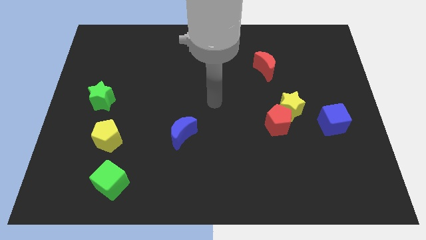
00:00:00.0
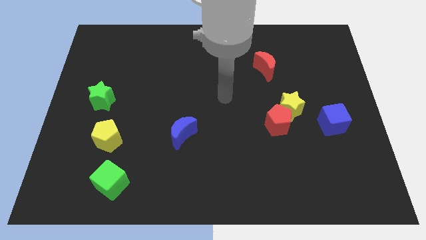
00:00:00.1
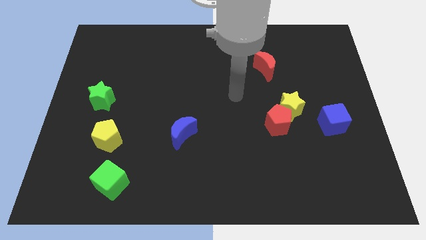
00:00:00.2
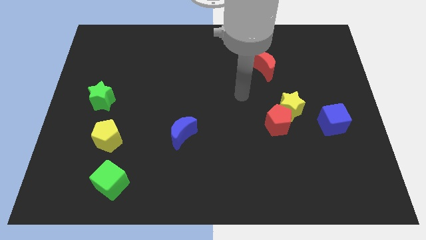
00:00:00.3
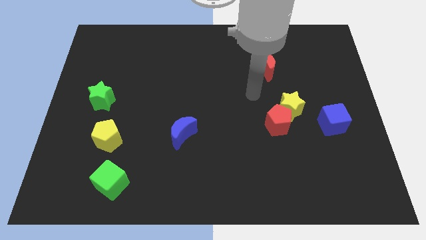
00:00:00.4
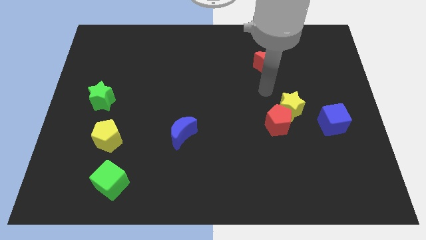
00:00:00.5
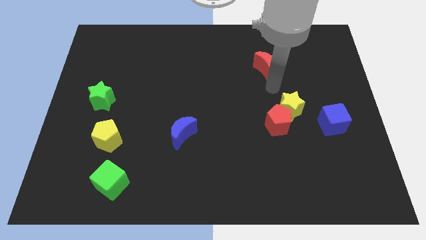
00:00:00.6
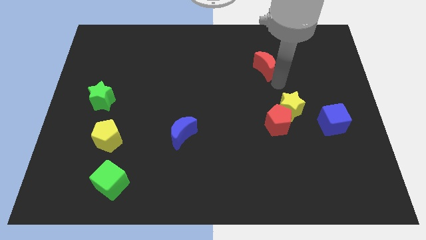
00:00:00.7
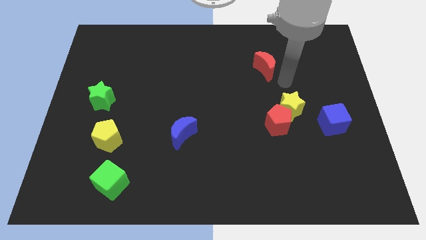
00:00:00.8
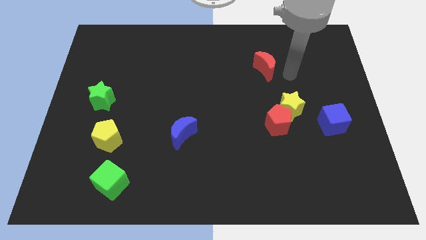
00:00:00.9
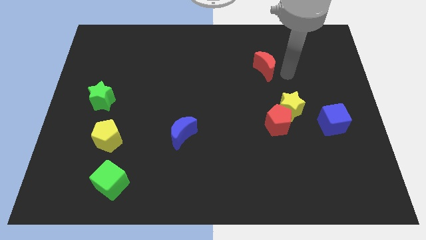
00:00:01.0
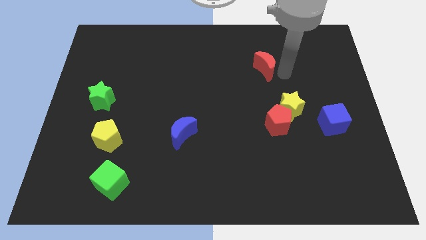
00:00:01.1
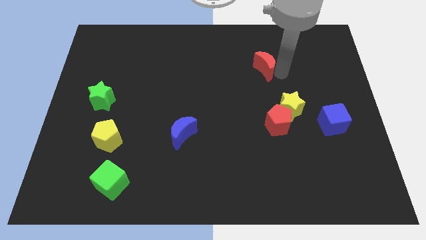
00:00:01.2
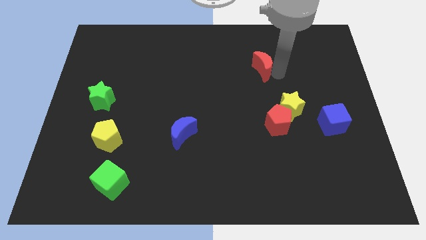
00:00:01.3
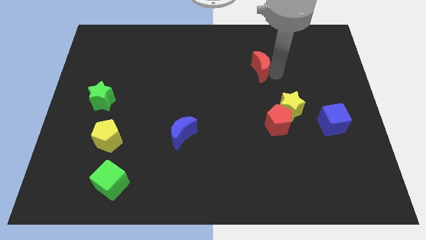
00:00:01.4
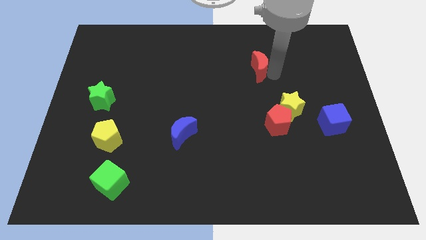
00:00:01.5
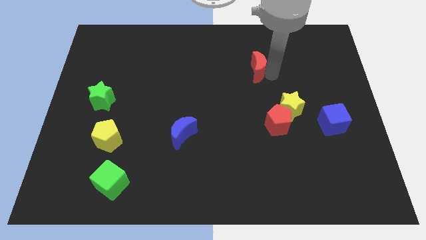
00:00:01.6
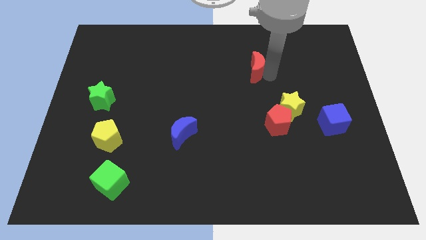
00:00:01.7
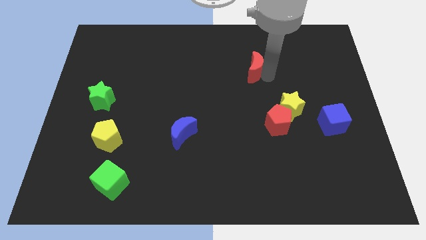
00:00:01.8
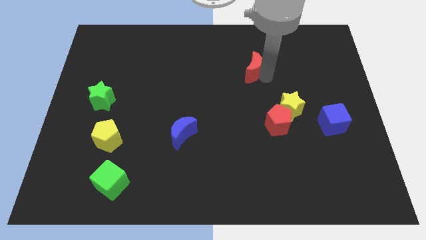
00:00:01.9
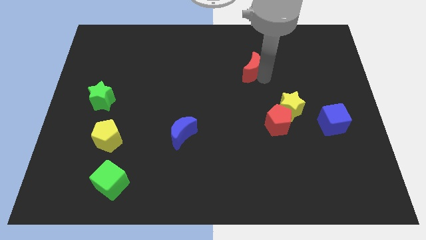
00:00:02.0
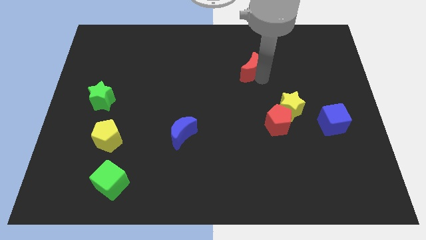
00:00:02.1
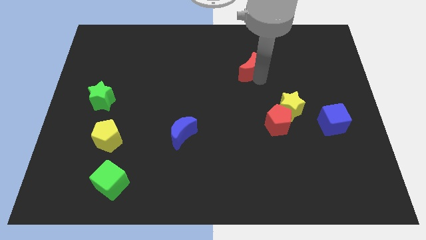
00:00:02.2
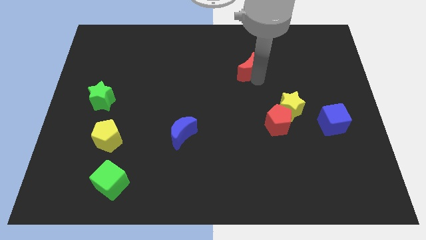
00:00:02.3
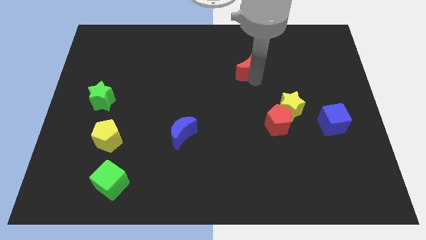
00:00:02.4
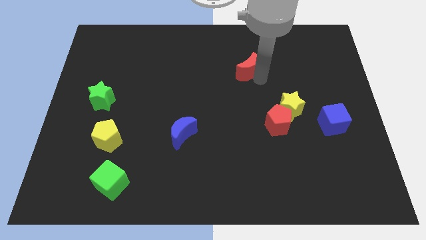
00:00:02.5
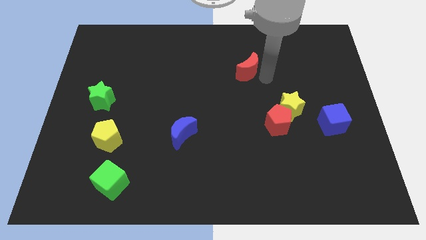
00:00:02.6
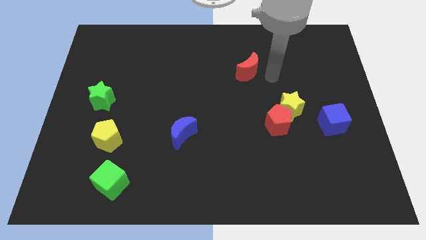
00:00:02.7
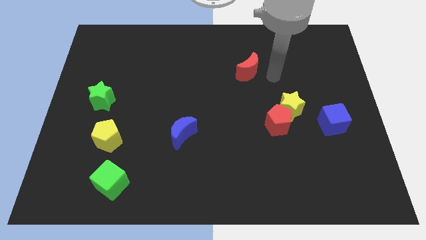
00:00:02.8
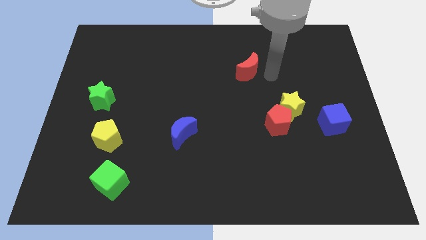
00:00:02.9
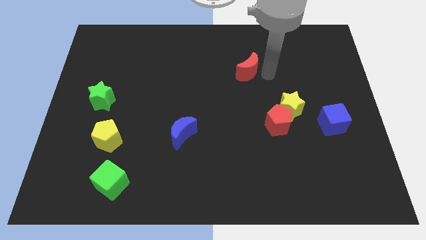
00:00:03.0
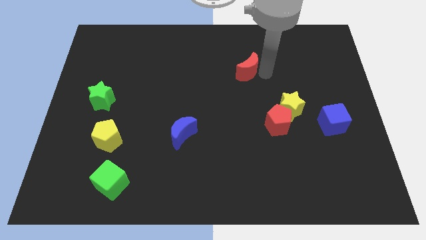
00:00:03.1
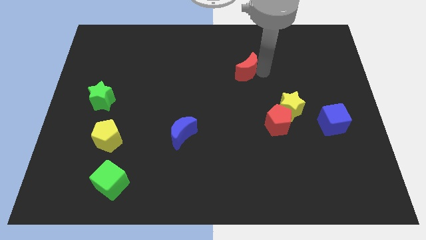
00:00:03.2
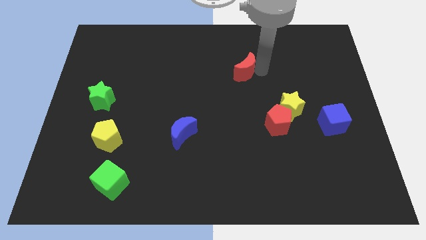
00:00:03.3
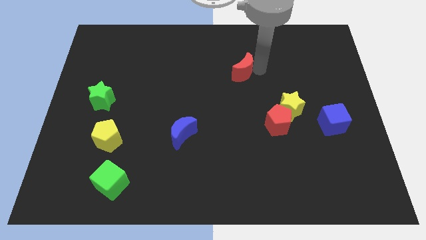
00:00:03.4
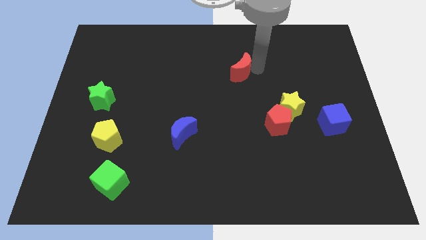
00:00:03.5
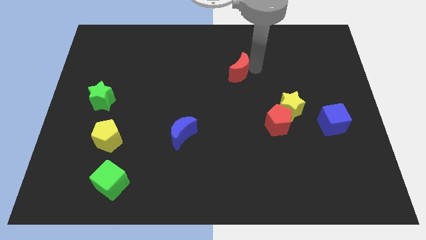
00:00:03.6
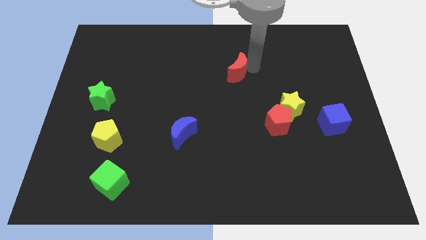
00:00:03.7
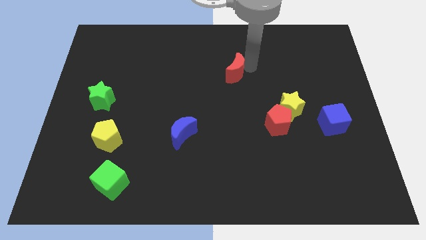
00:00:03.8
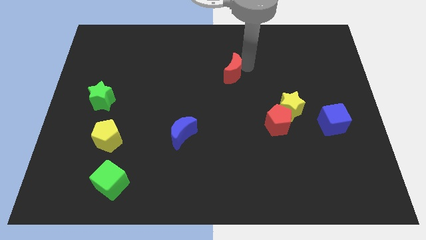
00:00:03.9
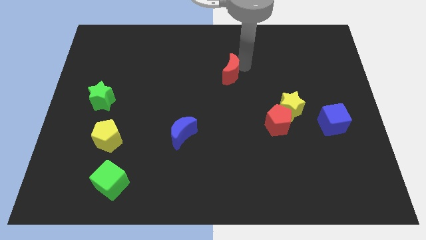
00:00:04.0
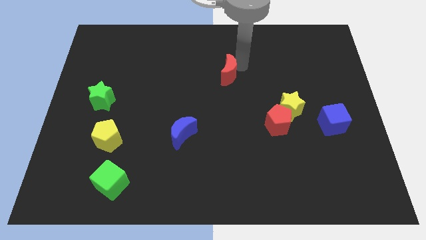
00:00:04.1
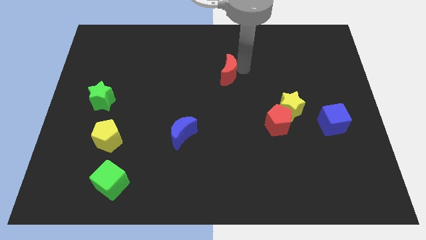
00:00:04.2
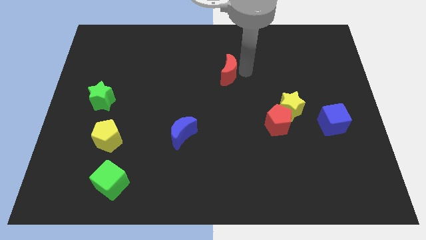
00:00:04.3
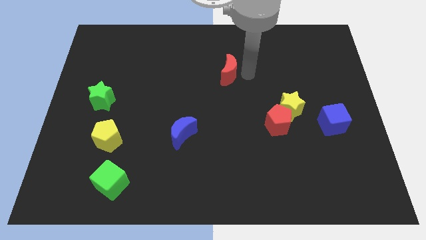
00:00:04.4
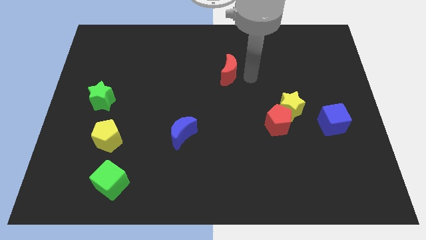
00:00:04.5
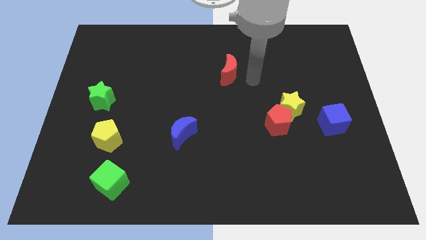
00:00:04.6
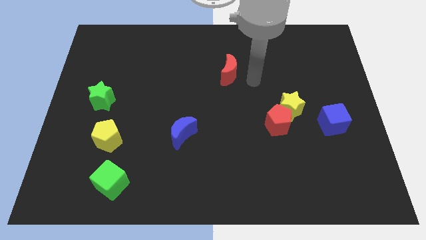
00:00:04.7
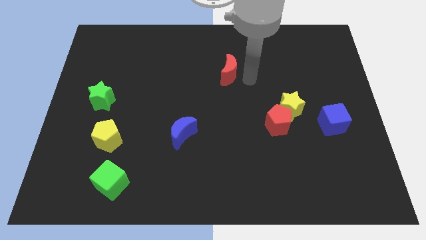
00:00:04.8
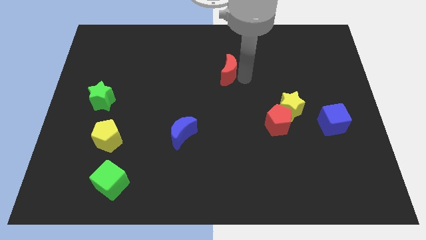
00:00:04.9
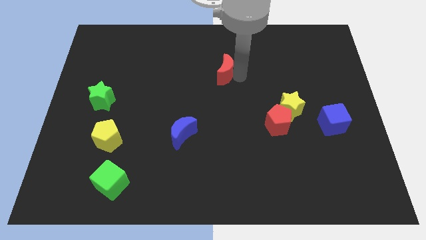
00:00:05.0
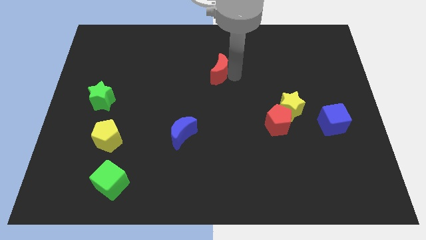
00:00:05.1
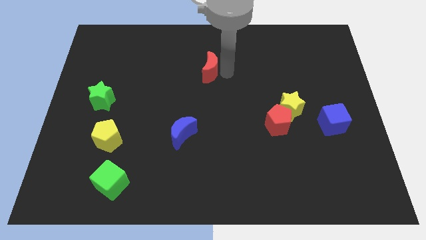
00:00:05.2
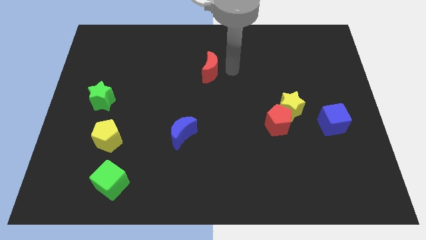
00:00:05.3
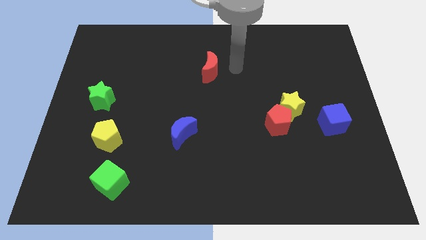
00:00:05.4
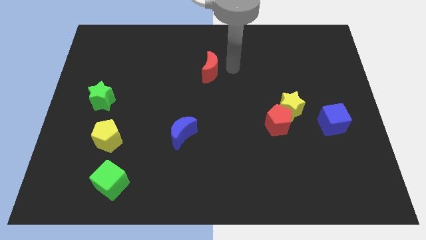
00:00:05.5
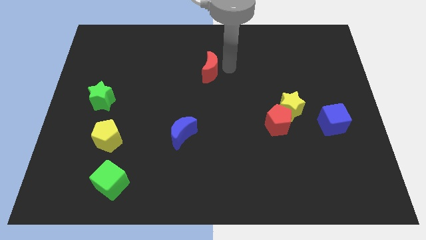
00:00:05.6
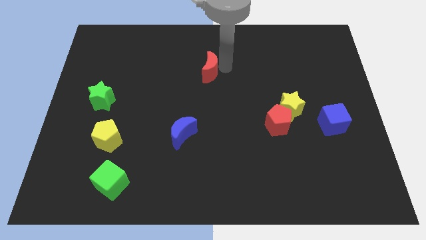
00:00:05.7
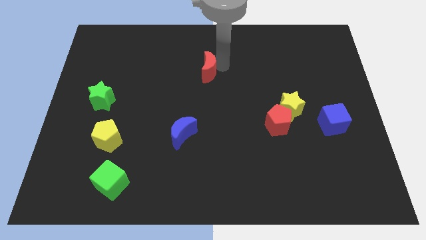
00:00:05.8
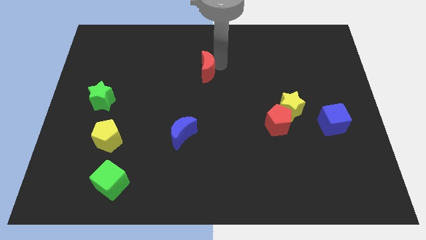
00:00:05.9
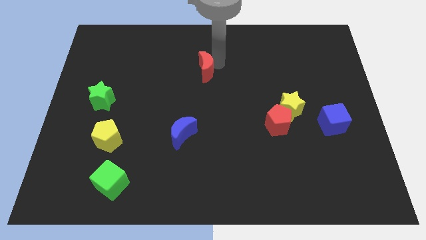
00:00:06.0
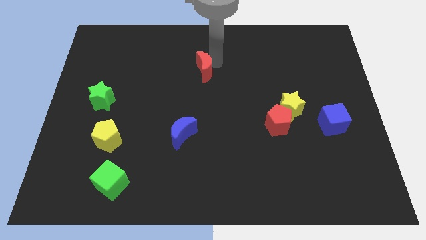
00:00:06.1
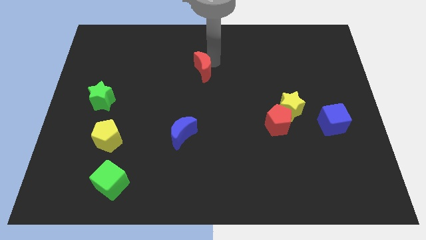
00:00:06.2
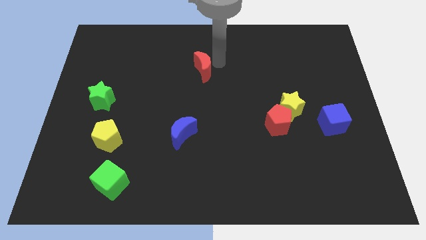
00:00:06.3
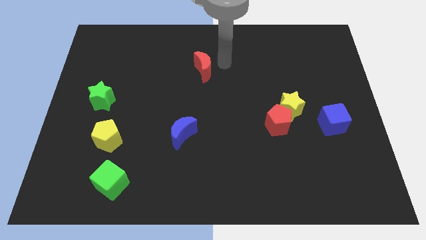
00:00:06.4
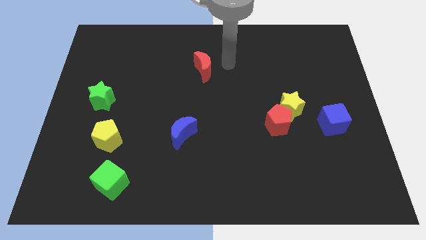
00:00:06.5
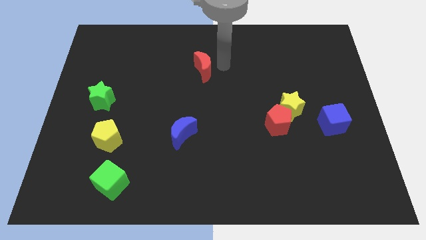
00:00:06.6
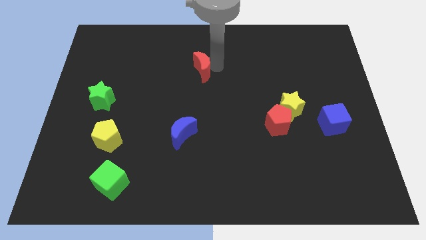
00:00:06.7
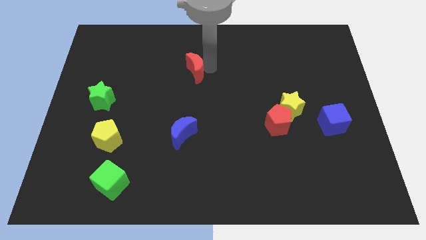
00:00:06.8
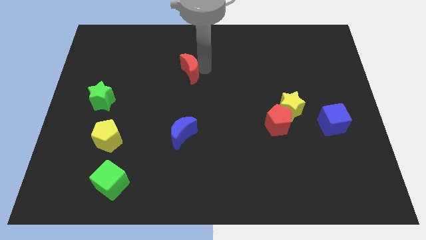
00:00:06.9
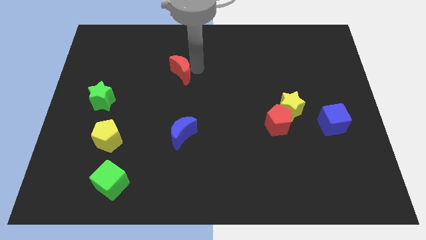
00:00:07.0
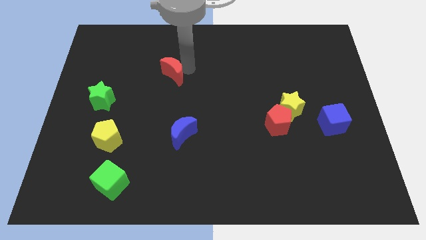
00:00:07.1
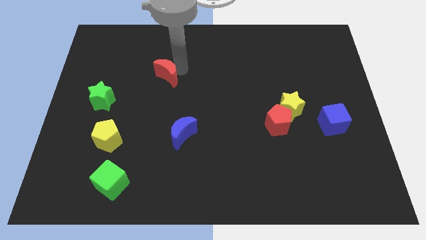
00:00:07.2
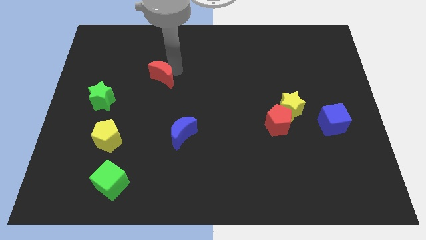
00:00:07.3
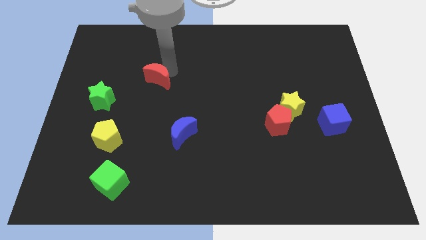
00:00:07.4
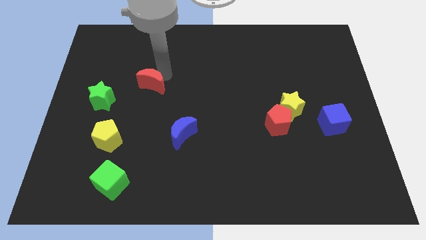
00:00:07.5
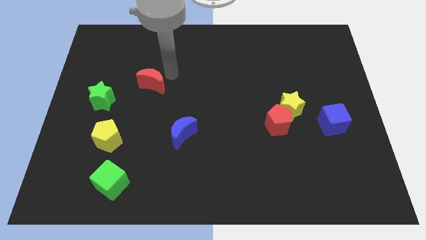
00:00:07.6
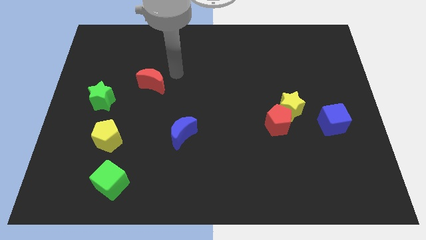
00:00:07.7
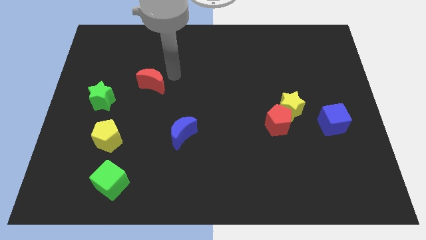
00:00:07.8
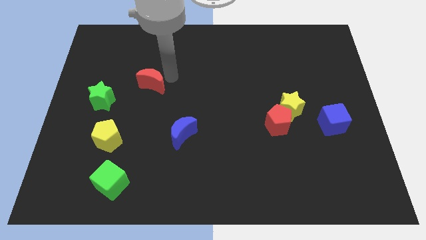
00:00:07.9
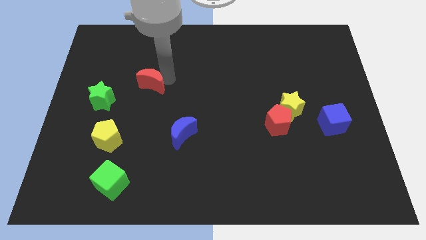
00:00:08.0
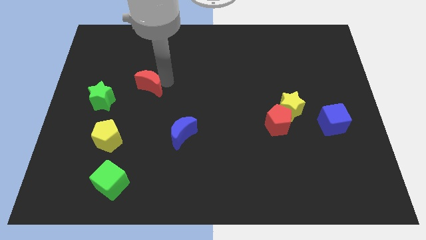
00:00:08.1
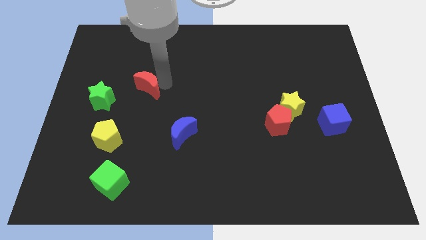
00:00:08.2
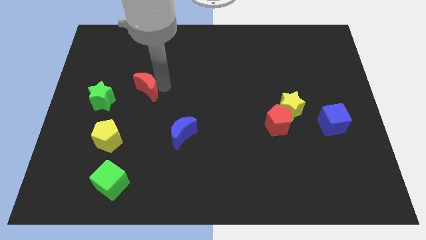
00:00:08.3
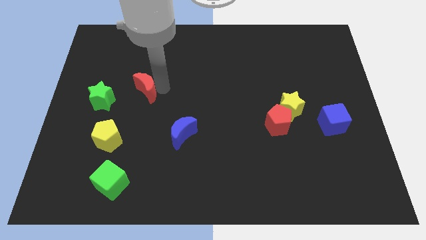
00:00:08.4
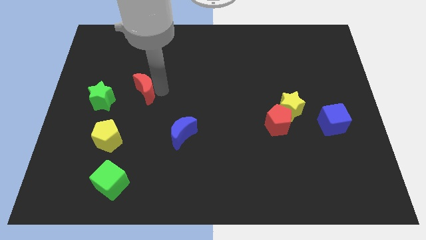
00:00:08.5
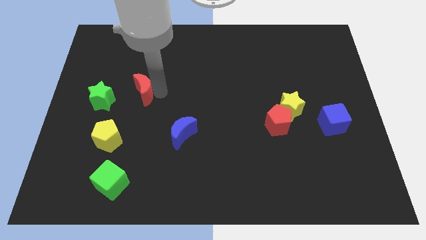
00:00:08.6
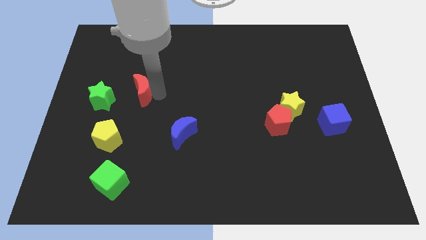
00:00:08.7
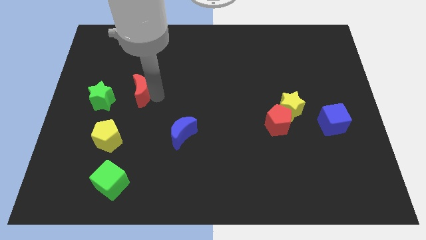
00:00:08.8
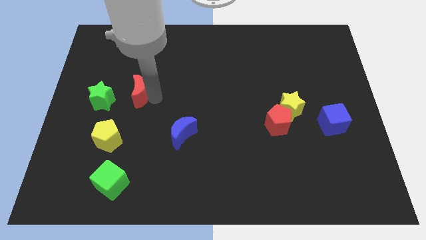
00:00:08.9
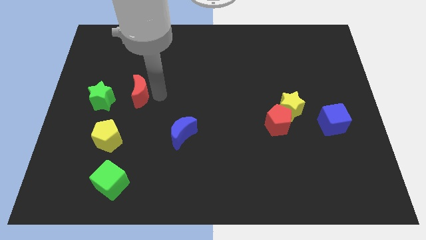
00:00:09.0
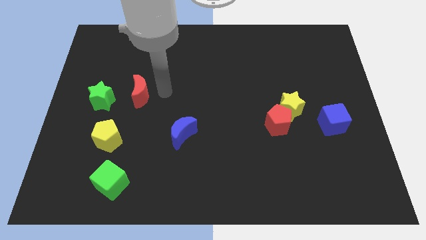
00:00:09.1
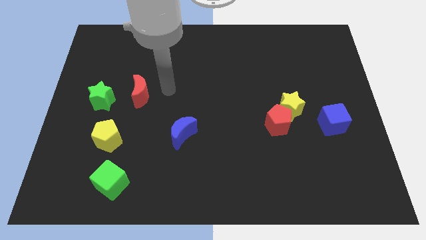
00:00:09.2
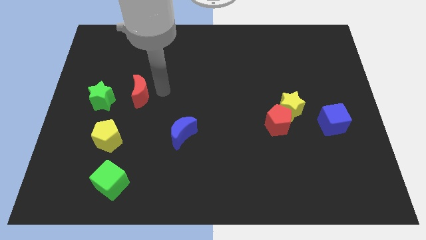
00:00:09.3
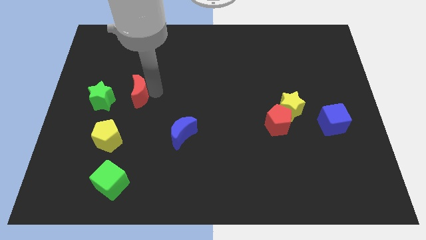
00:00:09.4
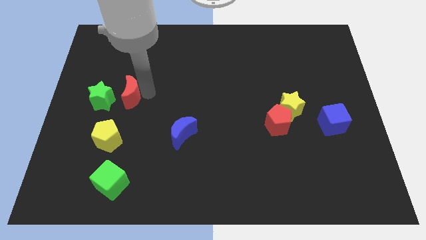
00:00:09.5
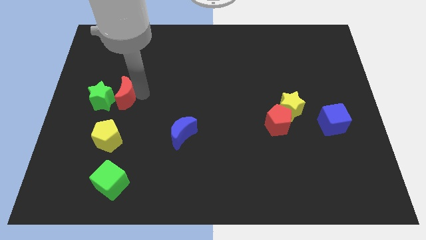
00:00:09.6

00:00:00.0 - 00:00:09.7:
slide the red moon to the green star
